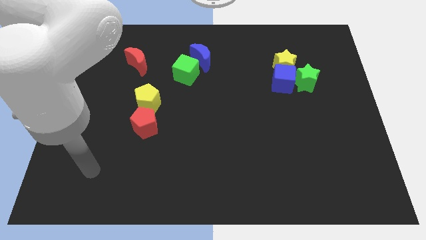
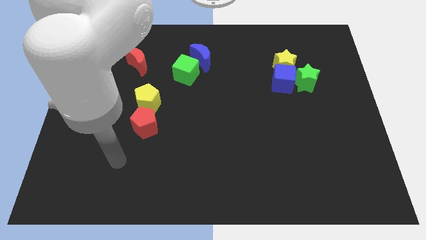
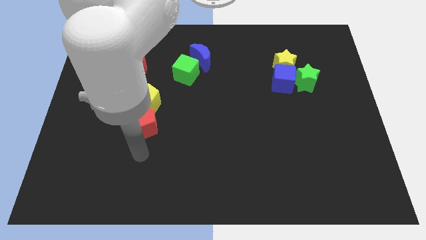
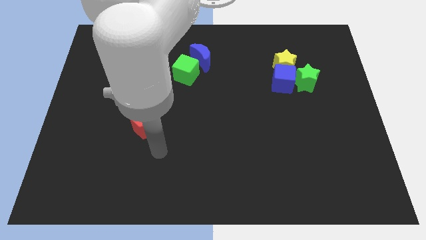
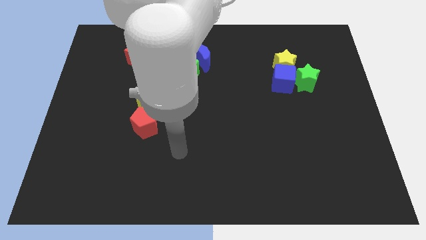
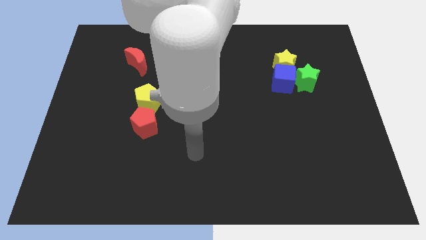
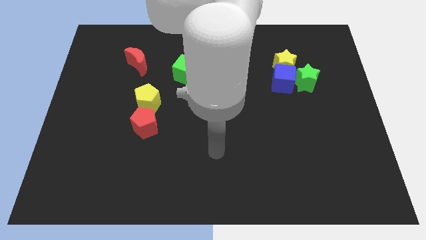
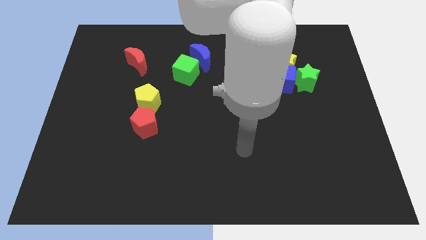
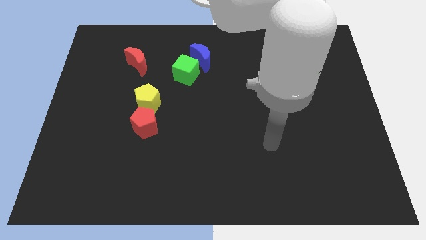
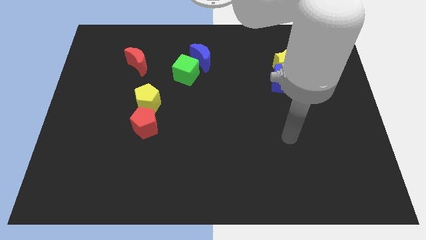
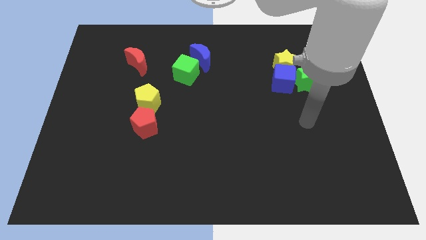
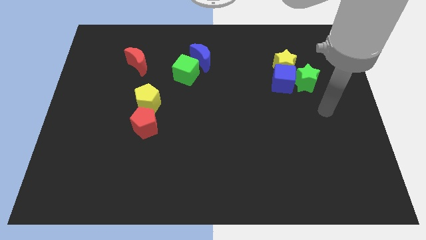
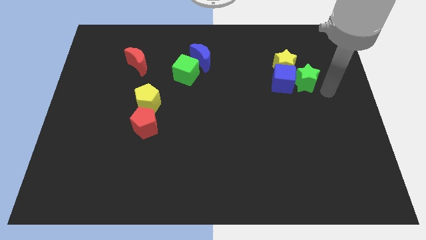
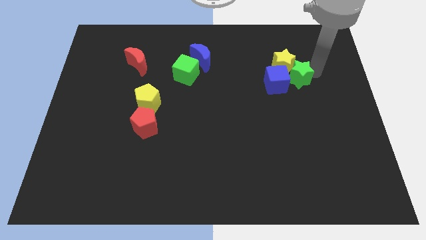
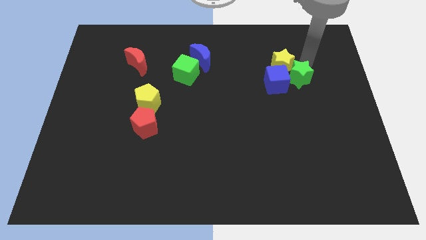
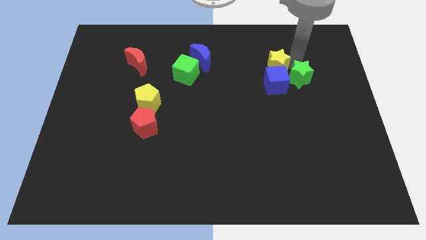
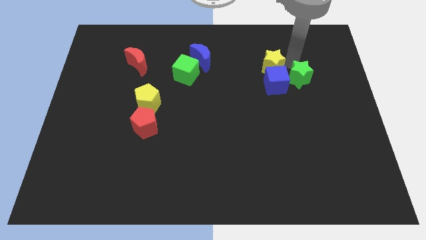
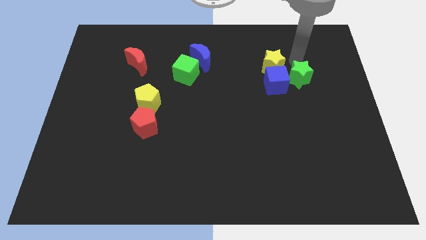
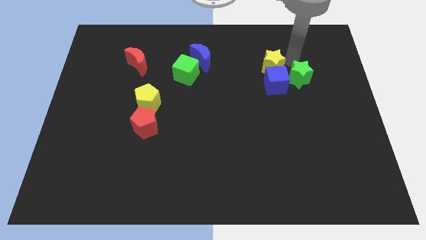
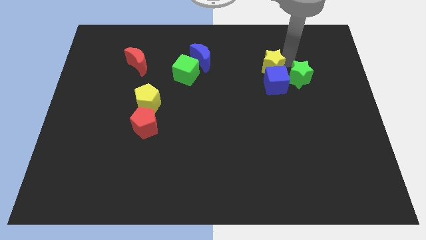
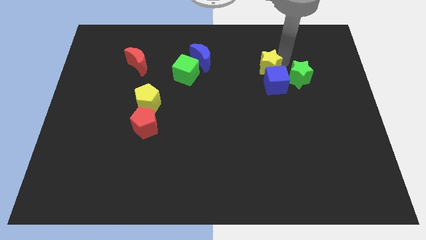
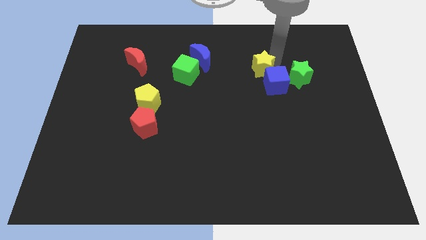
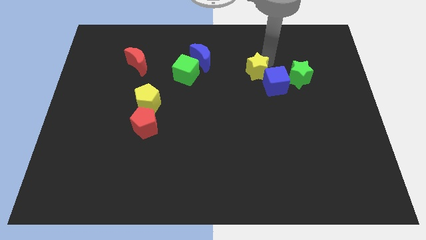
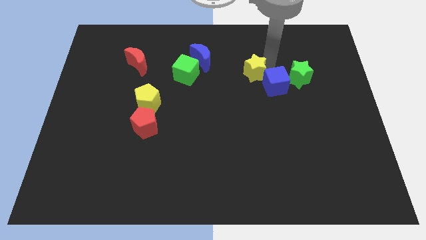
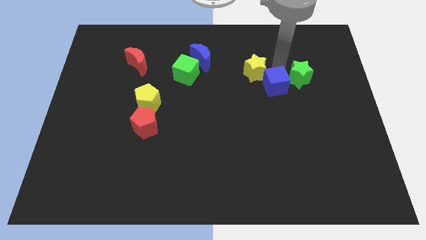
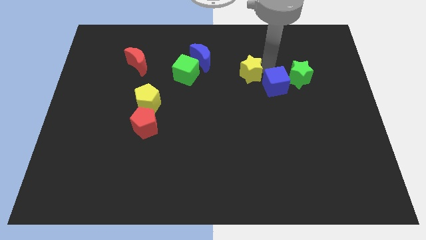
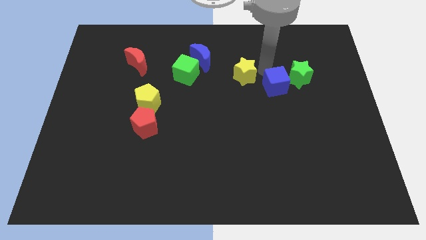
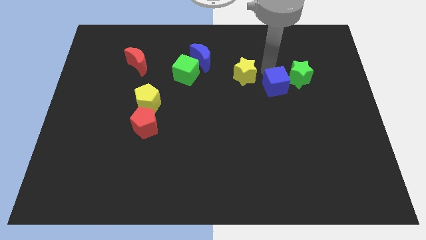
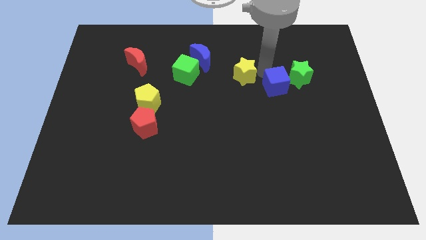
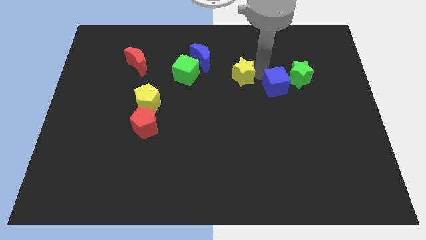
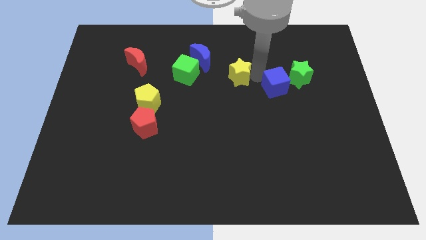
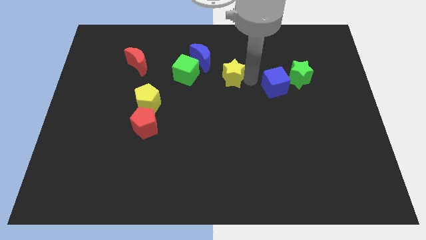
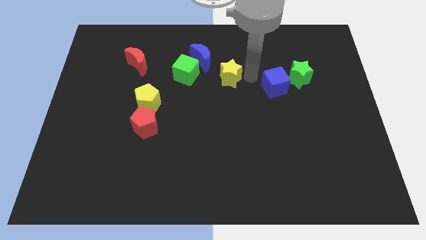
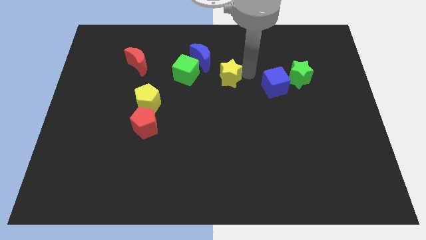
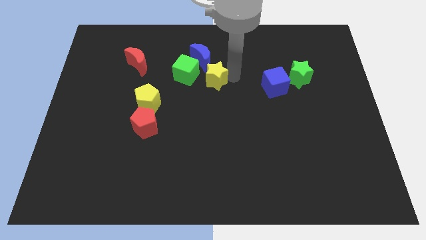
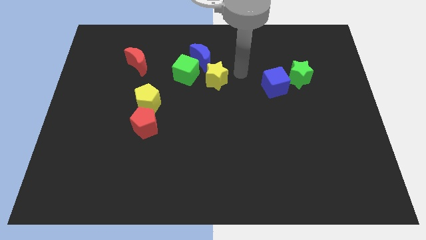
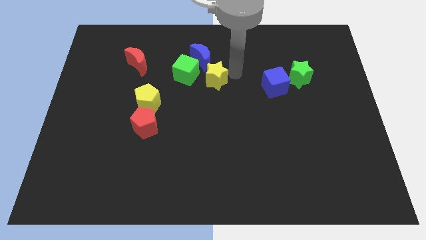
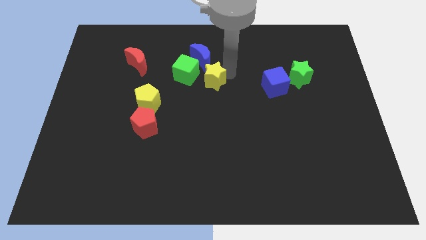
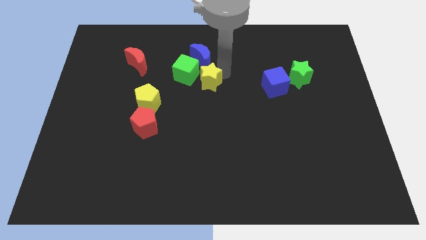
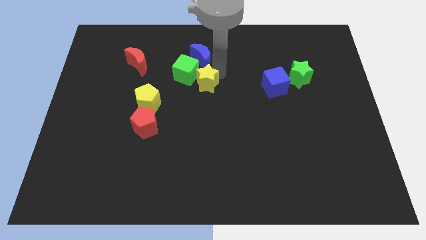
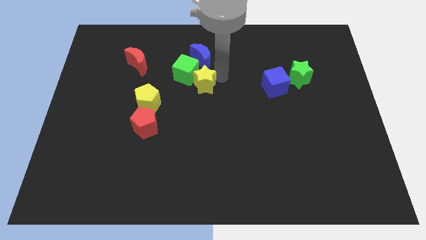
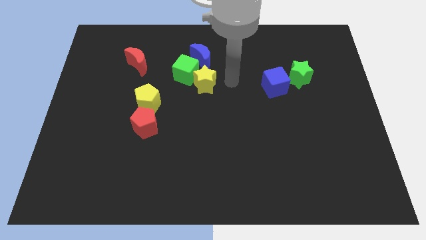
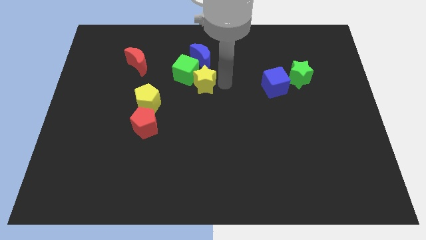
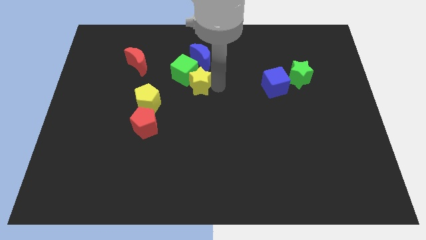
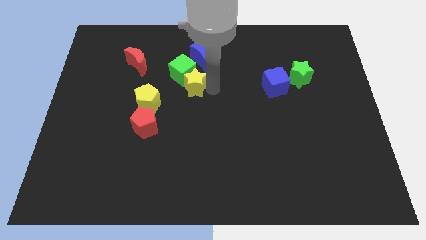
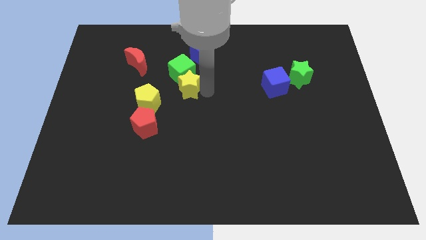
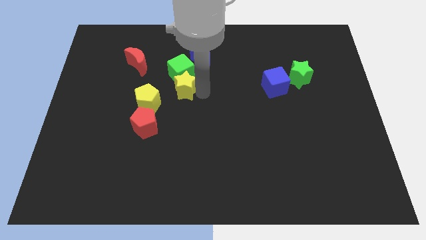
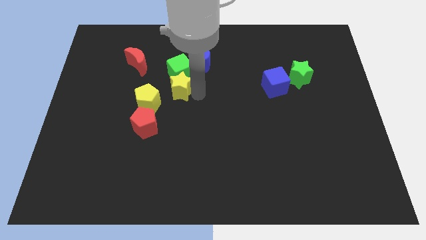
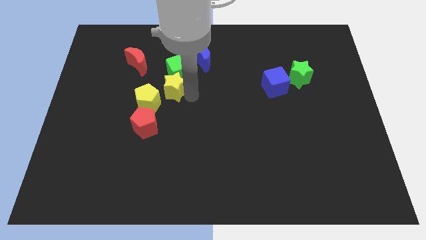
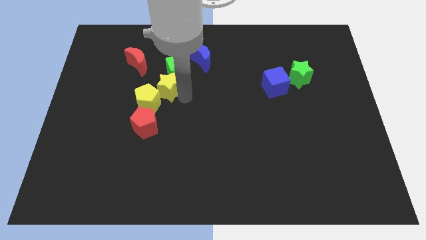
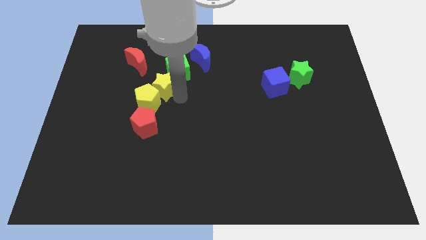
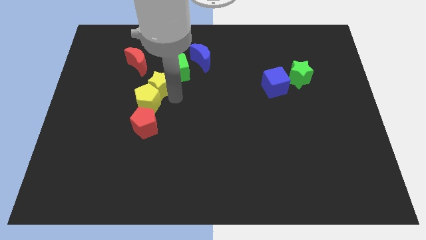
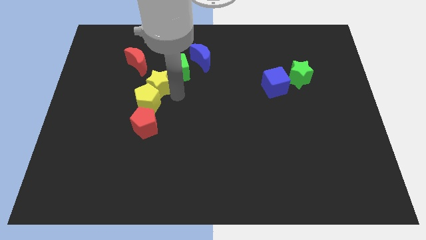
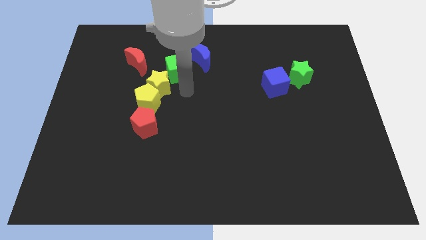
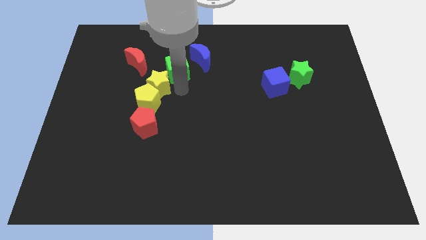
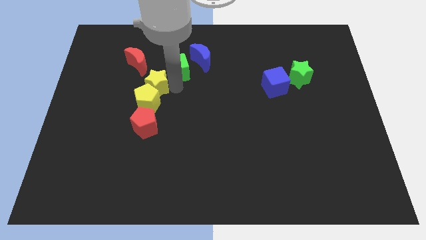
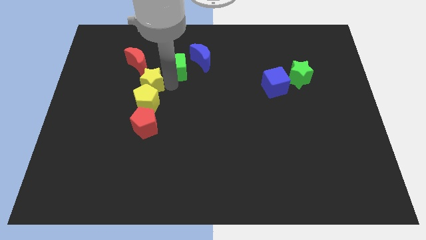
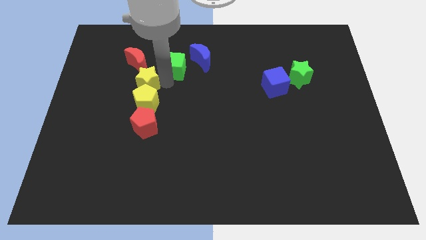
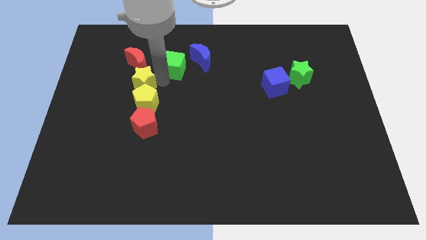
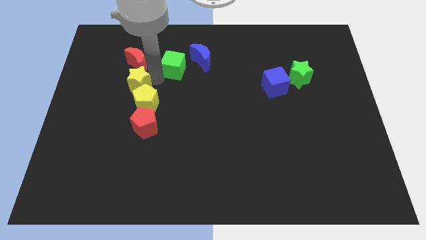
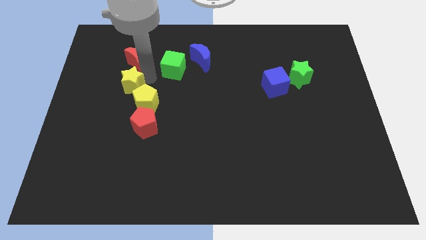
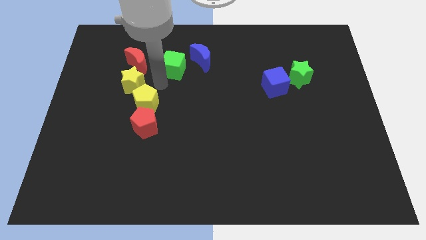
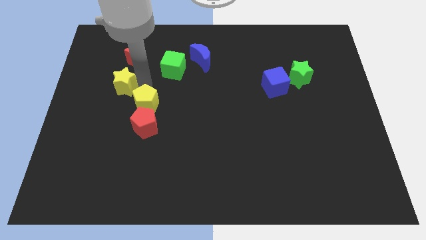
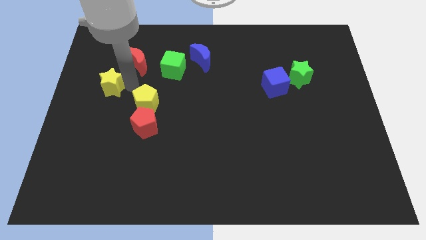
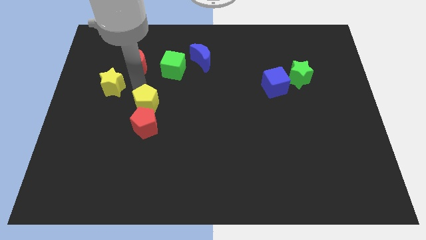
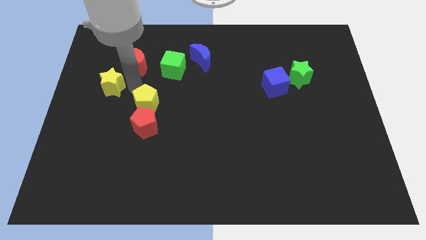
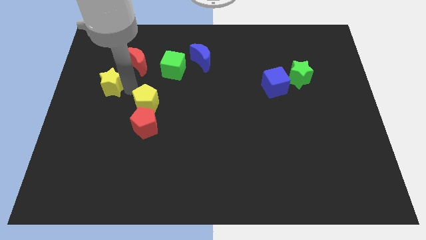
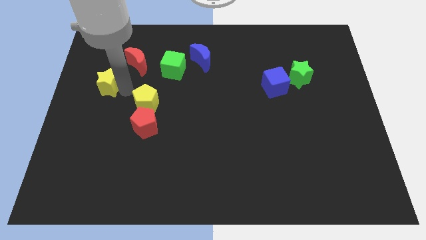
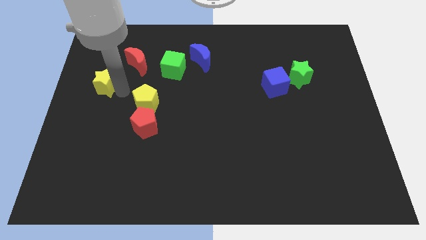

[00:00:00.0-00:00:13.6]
push the yellow star to the left side
